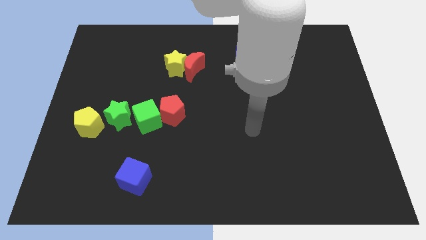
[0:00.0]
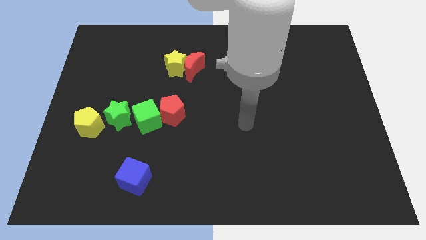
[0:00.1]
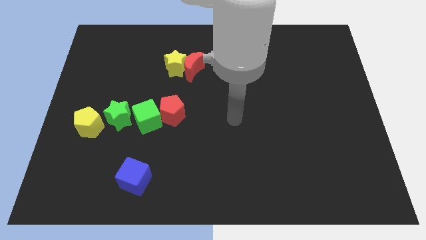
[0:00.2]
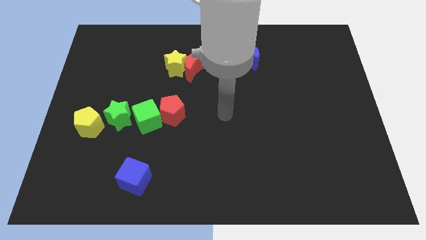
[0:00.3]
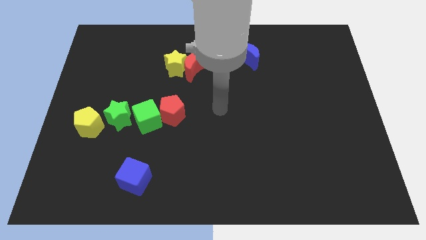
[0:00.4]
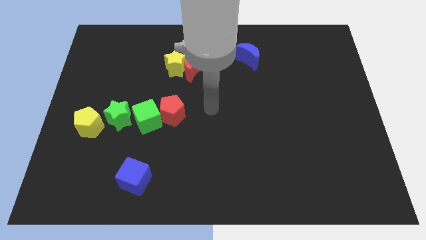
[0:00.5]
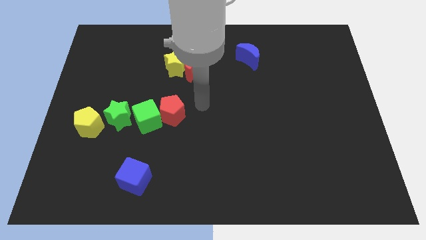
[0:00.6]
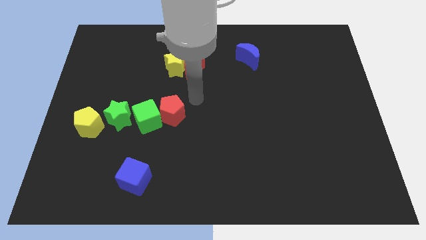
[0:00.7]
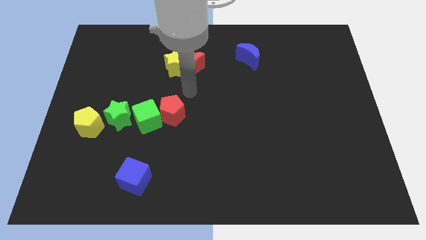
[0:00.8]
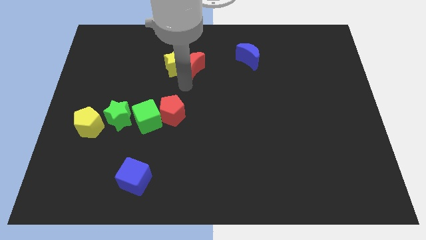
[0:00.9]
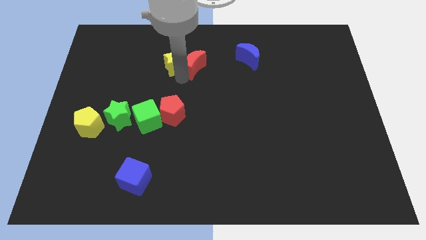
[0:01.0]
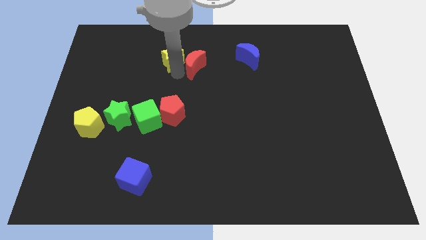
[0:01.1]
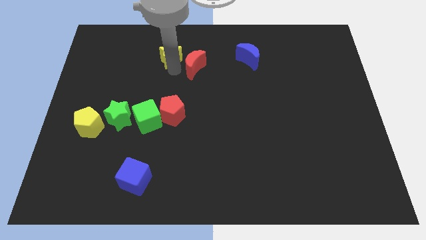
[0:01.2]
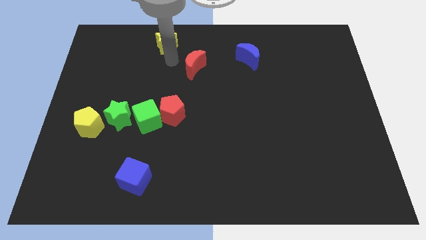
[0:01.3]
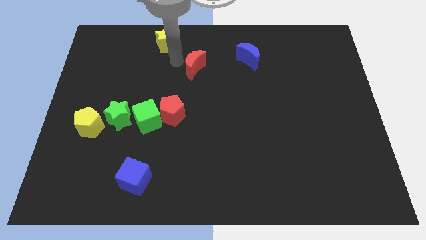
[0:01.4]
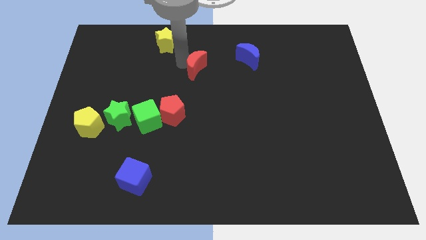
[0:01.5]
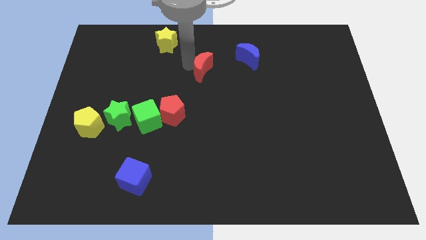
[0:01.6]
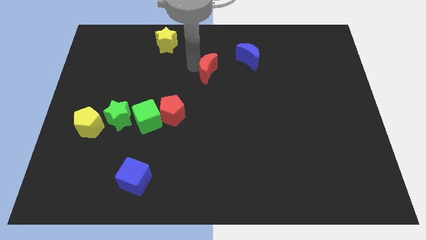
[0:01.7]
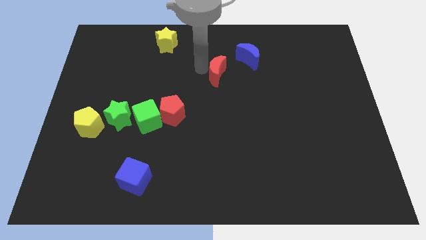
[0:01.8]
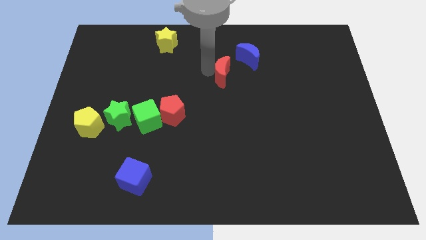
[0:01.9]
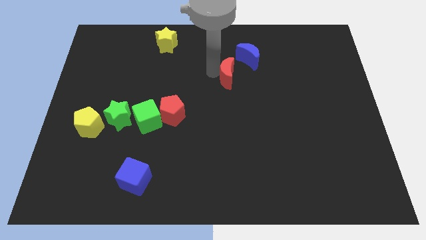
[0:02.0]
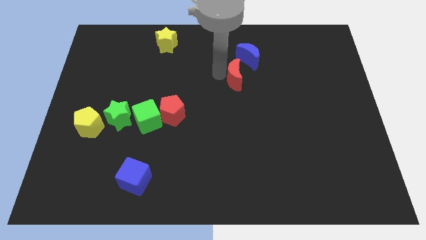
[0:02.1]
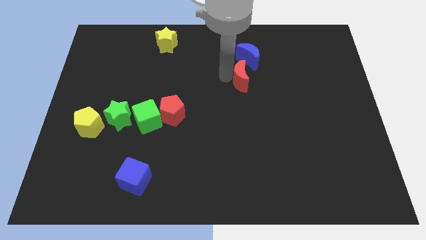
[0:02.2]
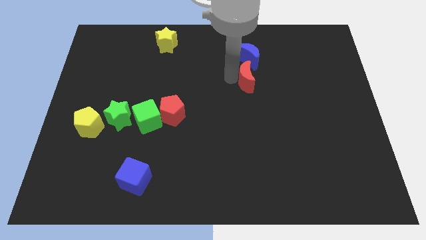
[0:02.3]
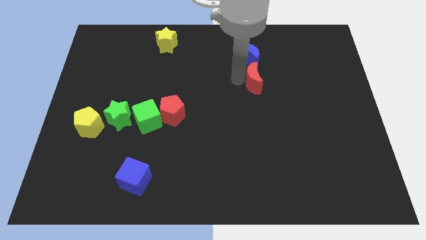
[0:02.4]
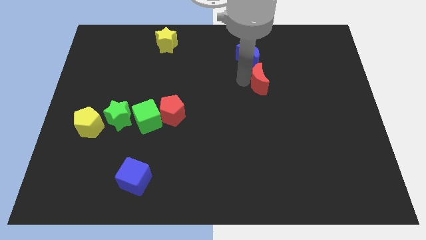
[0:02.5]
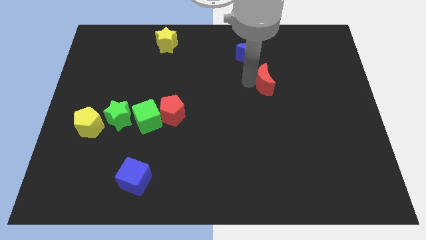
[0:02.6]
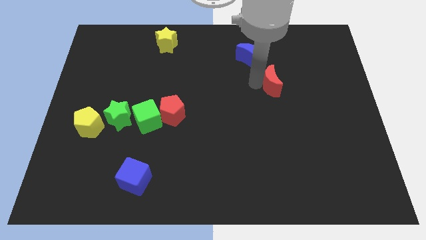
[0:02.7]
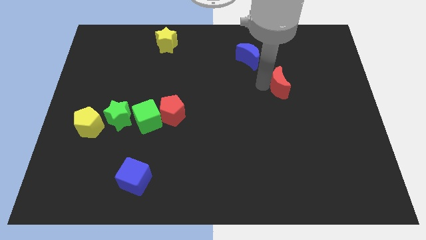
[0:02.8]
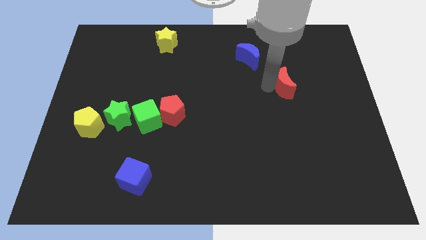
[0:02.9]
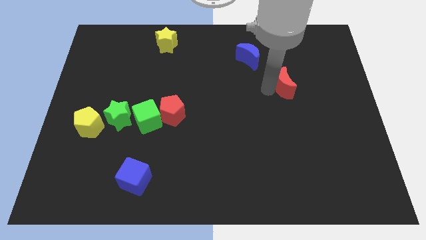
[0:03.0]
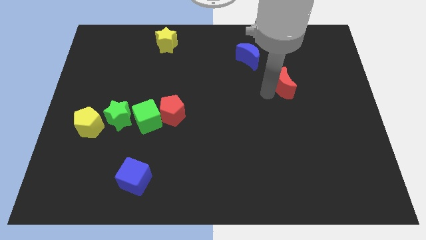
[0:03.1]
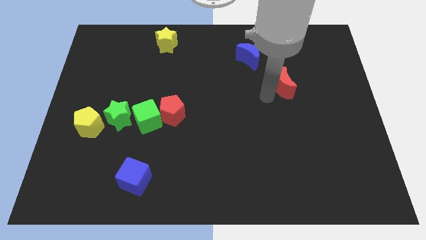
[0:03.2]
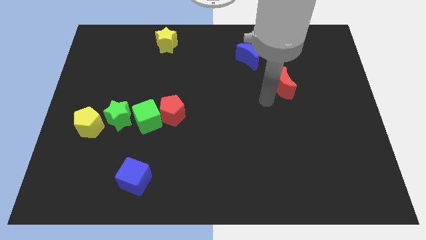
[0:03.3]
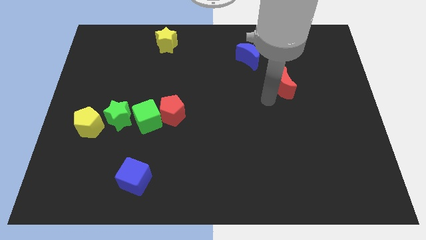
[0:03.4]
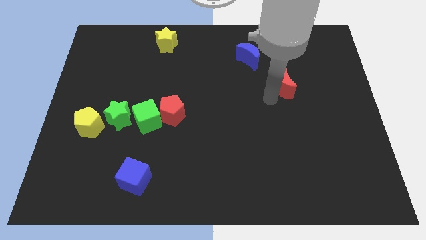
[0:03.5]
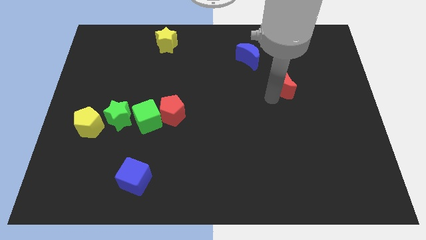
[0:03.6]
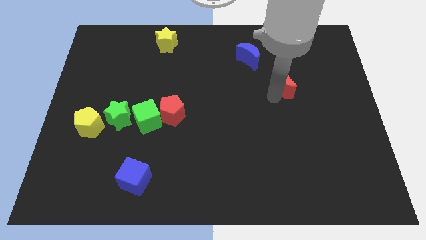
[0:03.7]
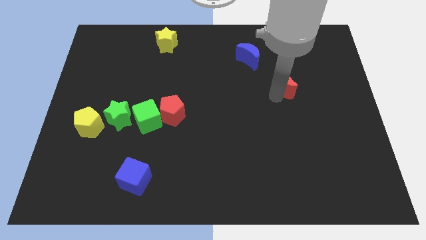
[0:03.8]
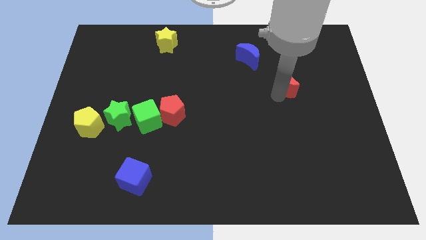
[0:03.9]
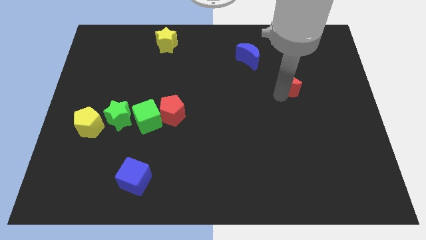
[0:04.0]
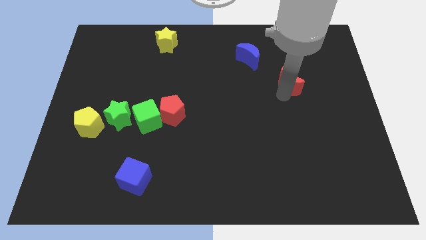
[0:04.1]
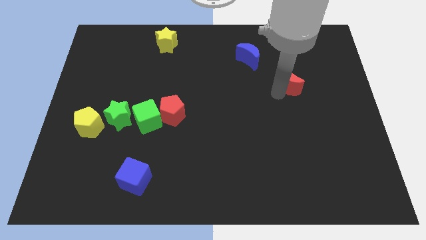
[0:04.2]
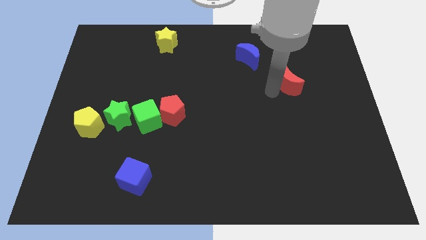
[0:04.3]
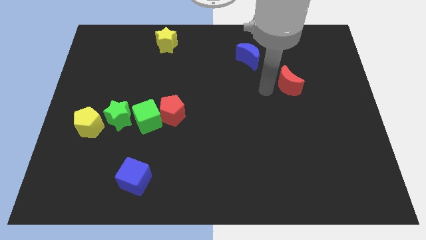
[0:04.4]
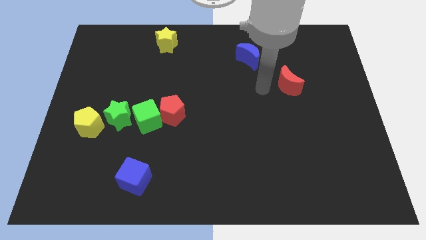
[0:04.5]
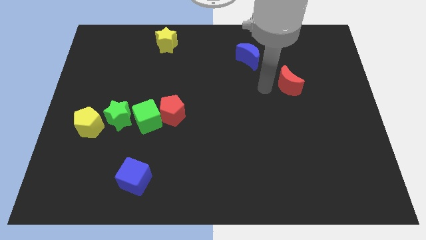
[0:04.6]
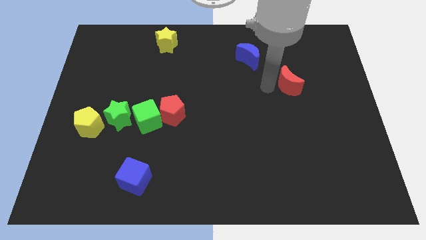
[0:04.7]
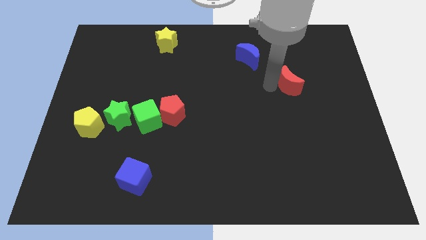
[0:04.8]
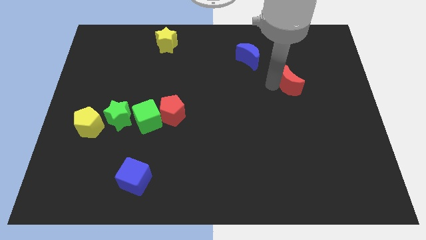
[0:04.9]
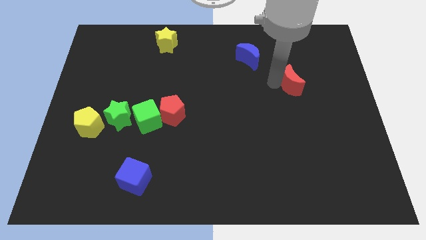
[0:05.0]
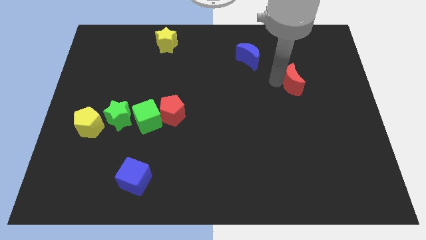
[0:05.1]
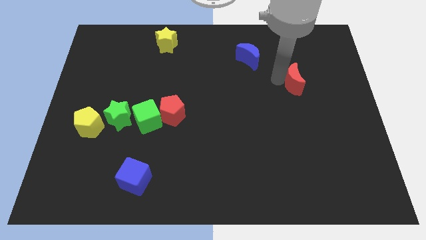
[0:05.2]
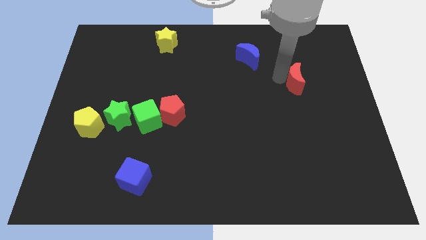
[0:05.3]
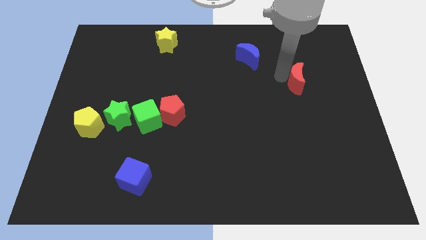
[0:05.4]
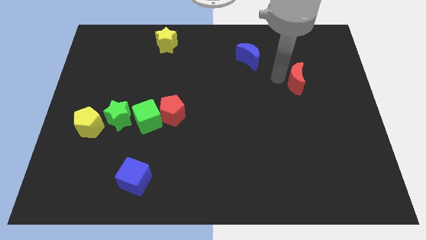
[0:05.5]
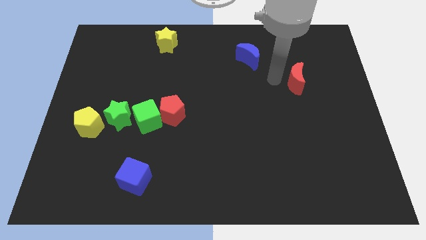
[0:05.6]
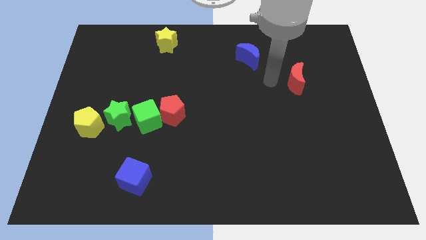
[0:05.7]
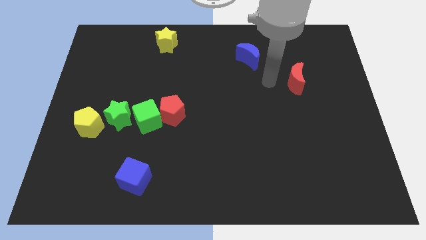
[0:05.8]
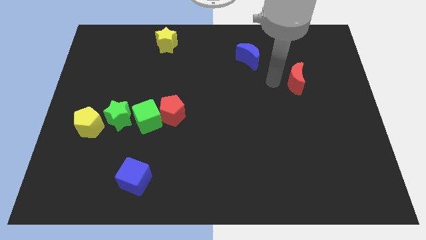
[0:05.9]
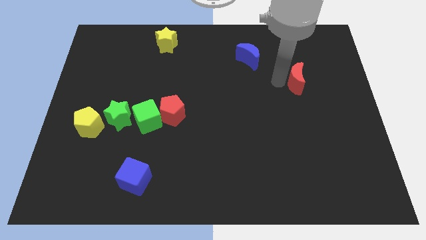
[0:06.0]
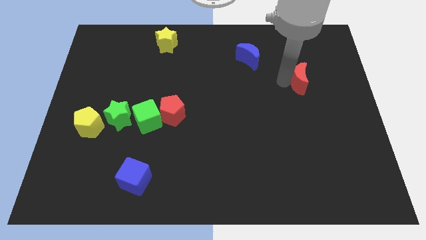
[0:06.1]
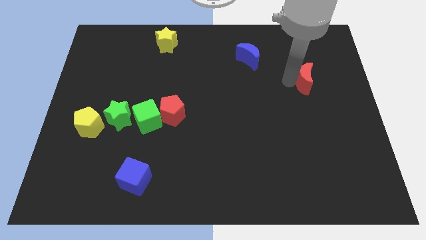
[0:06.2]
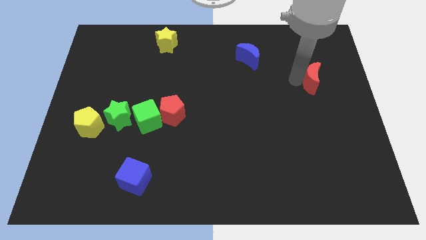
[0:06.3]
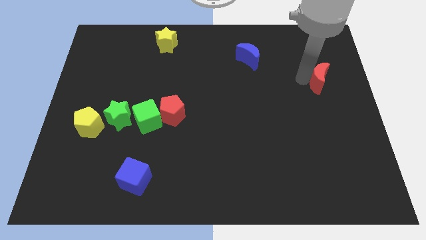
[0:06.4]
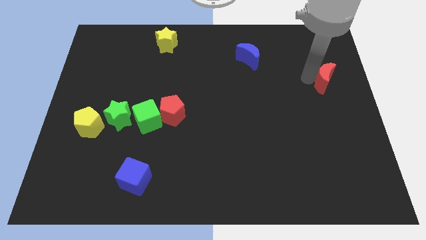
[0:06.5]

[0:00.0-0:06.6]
put the red moon to the right side of the board

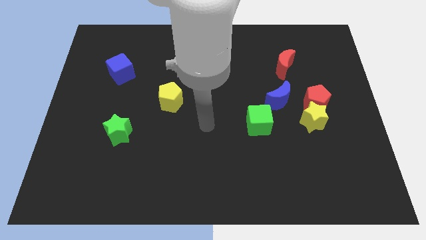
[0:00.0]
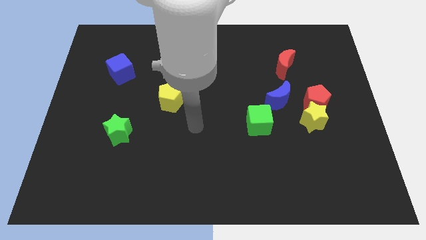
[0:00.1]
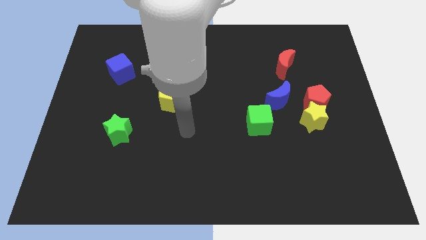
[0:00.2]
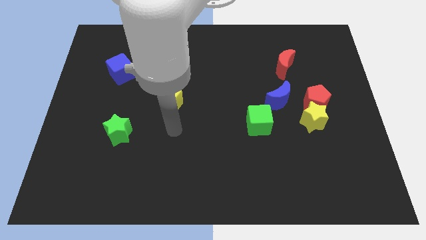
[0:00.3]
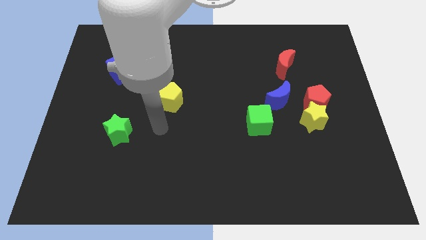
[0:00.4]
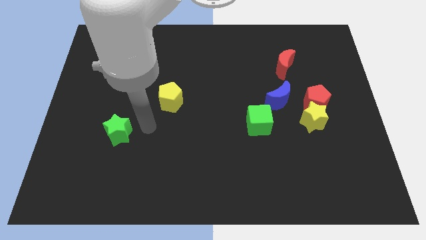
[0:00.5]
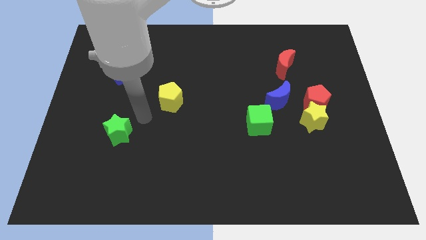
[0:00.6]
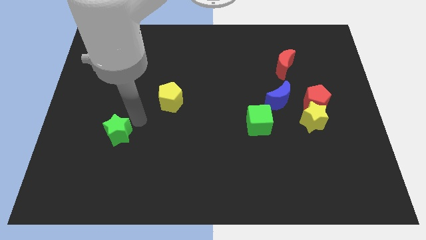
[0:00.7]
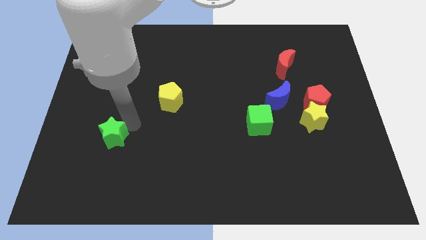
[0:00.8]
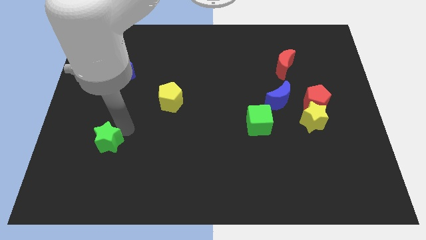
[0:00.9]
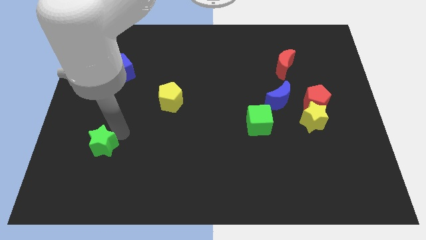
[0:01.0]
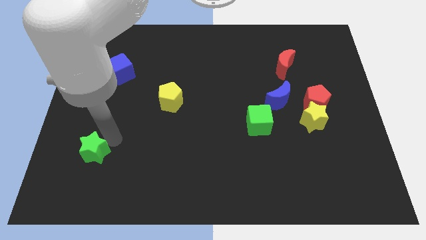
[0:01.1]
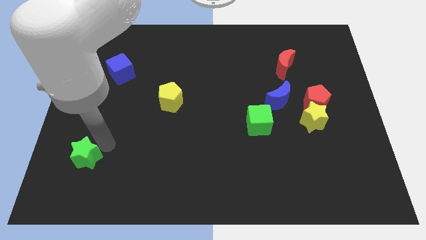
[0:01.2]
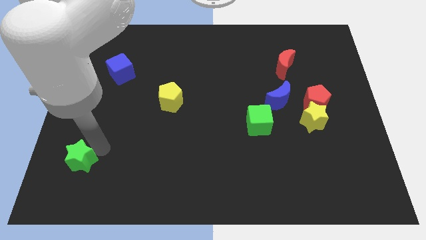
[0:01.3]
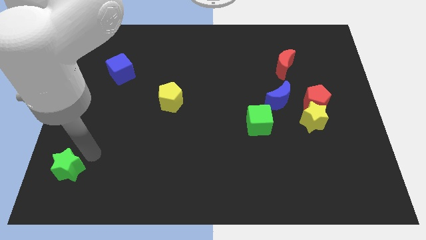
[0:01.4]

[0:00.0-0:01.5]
push the green star to the bottom left
